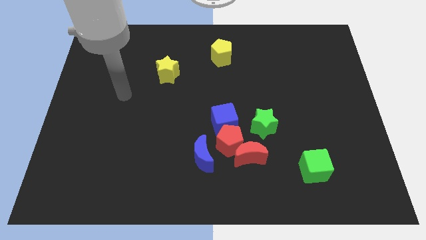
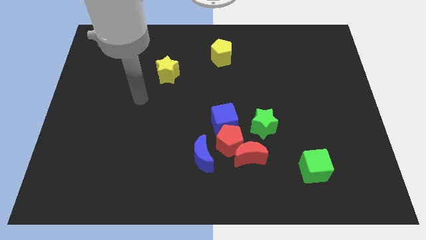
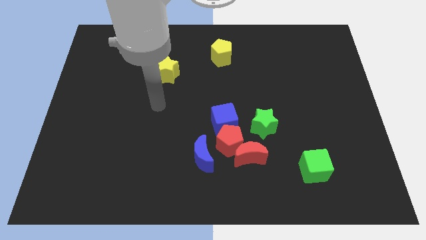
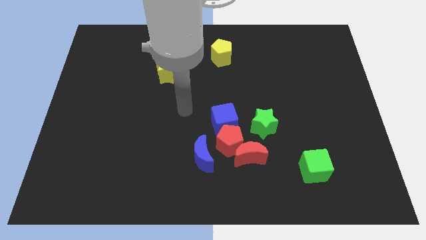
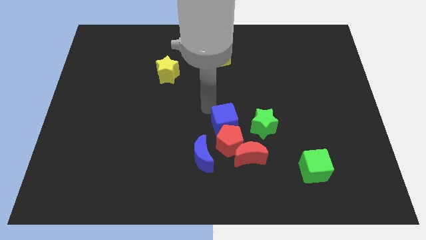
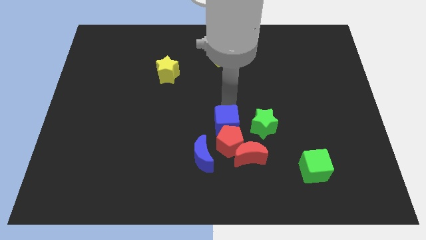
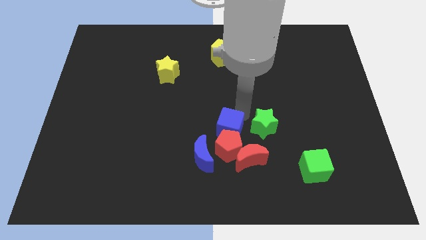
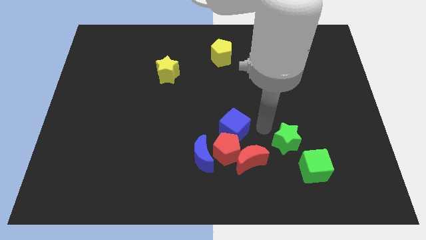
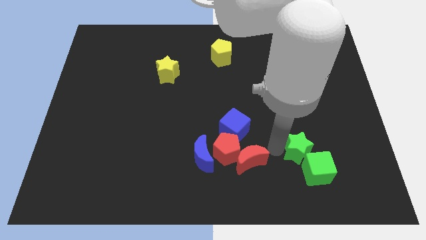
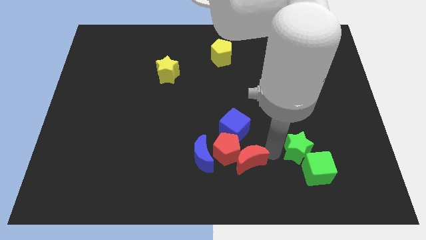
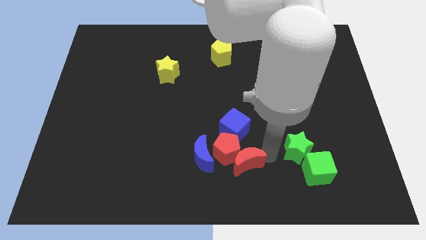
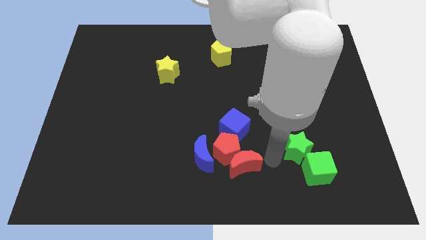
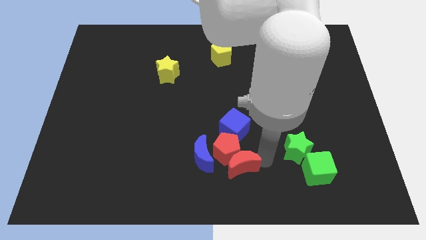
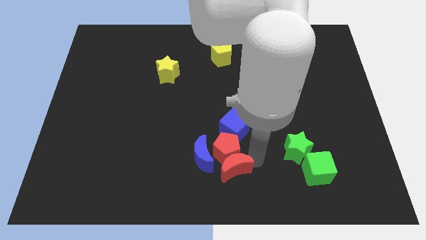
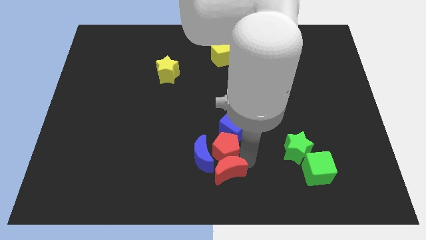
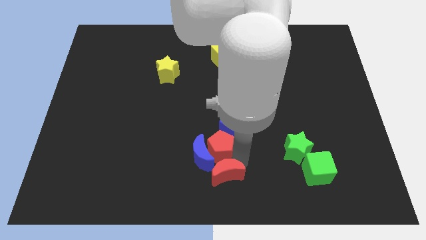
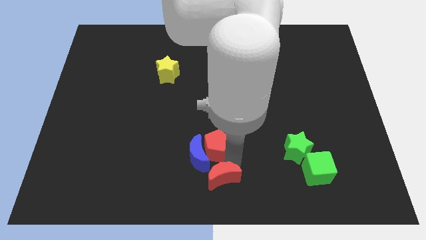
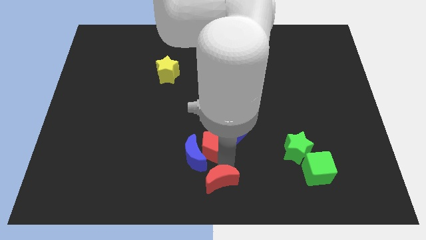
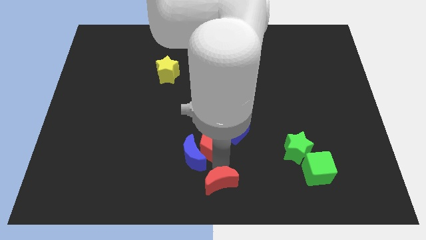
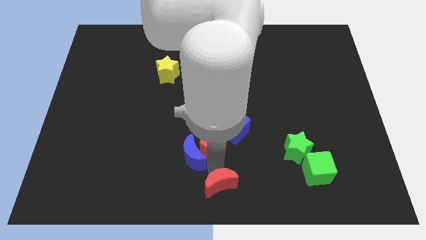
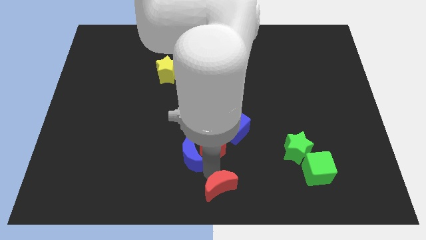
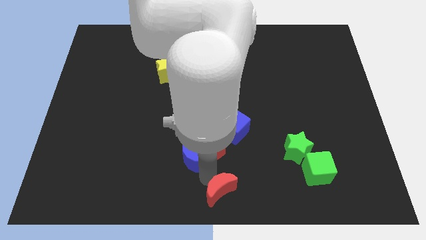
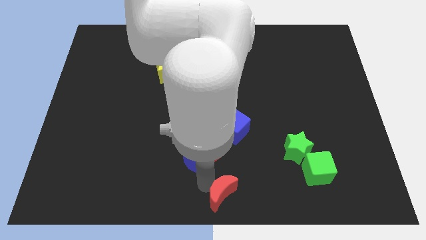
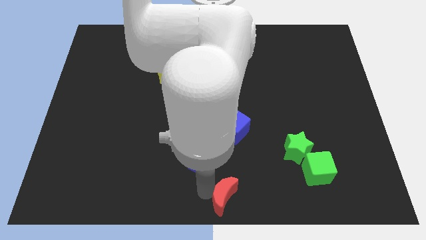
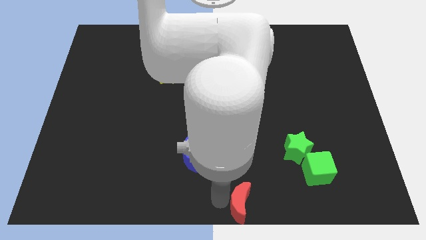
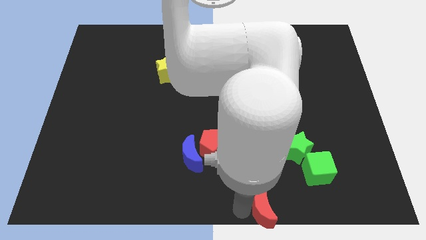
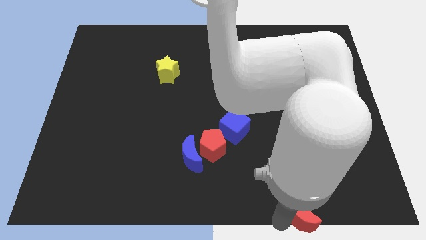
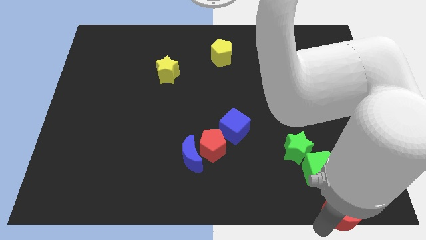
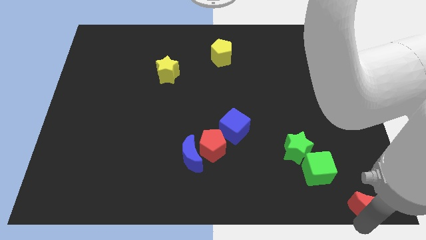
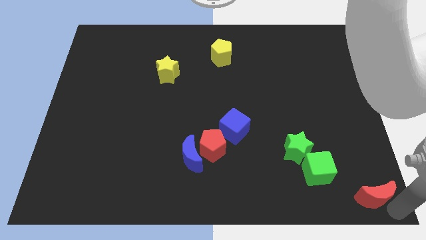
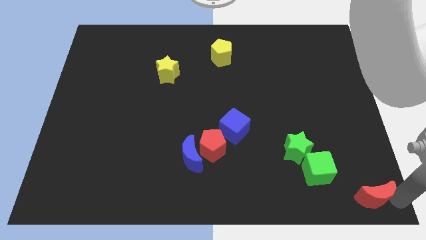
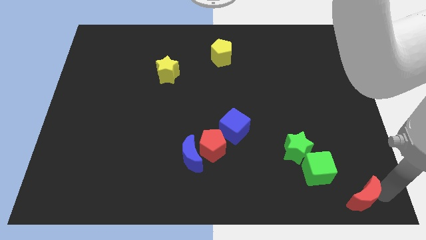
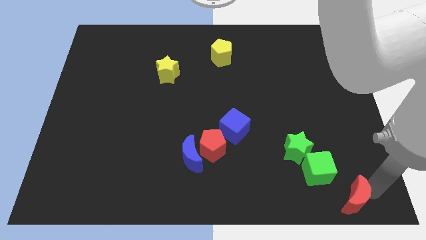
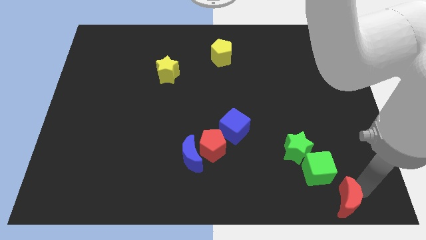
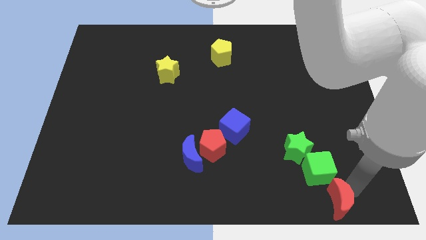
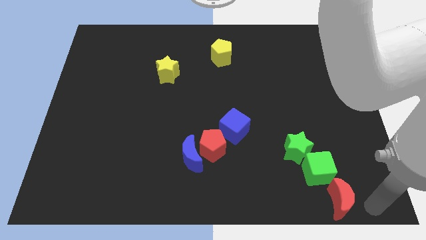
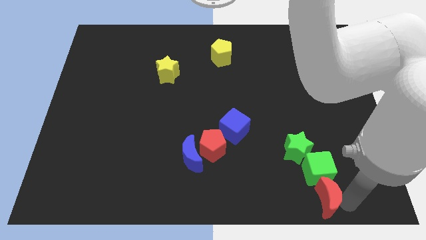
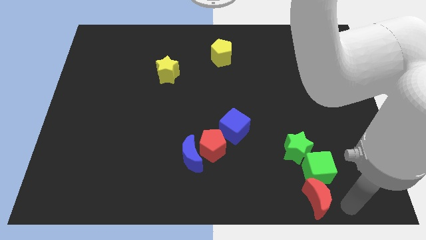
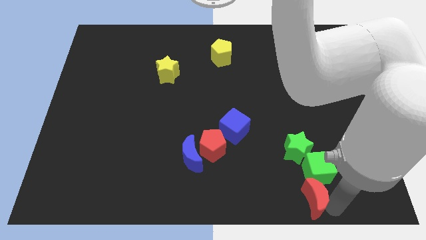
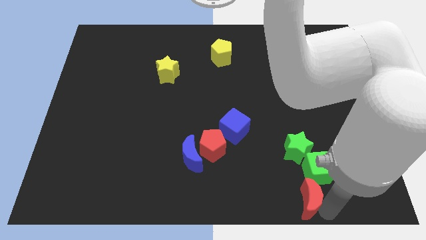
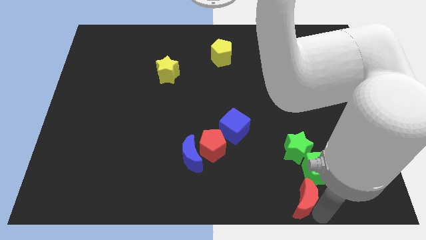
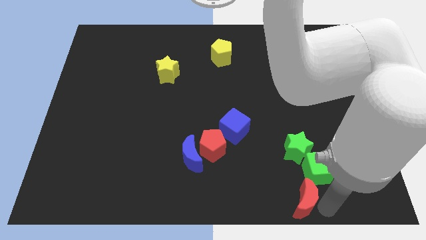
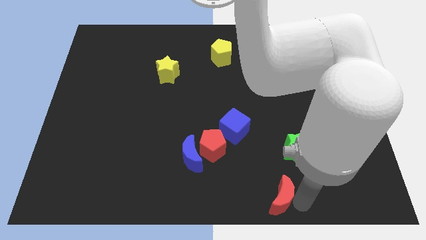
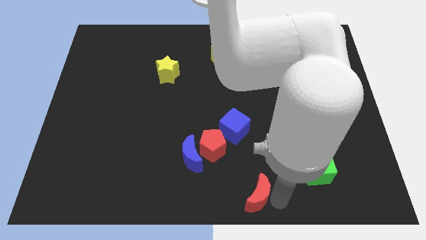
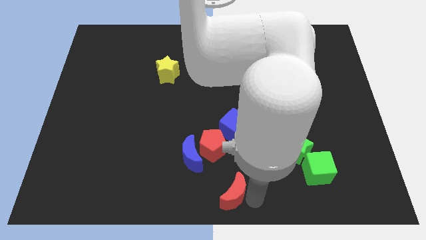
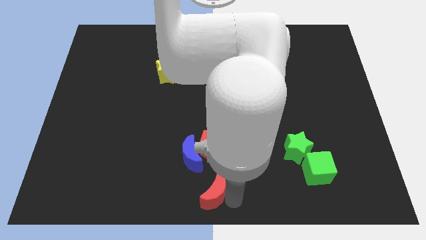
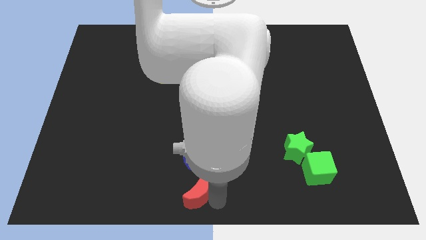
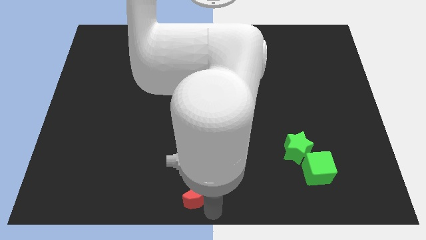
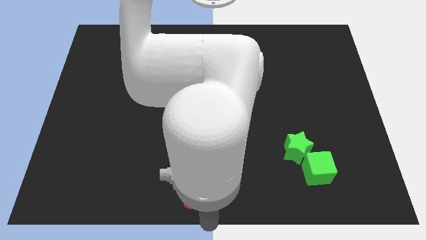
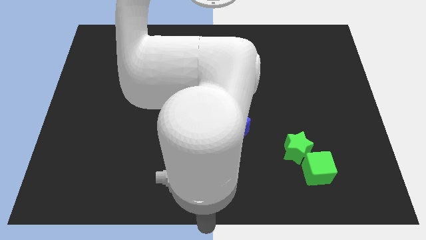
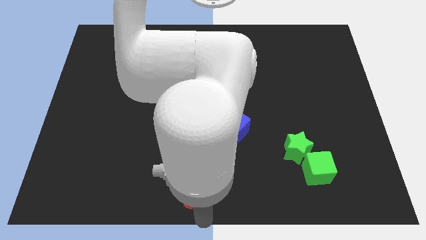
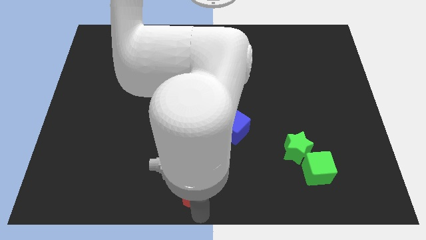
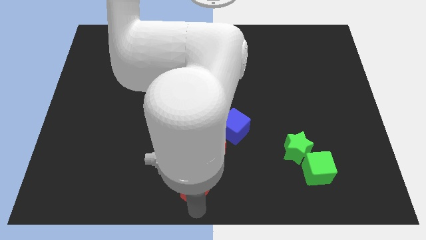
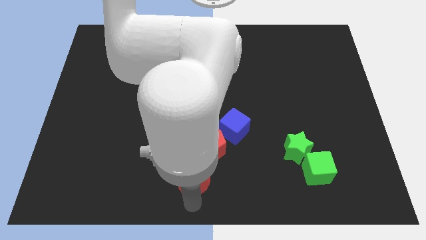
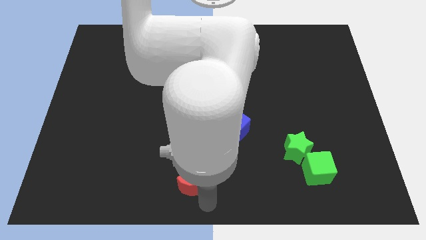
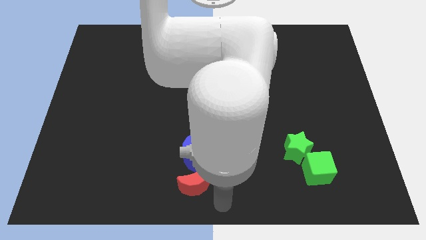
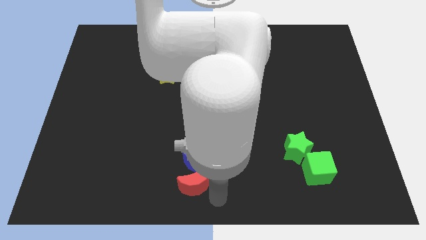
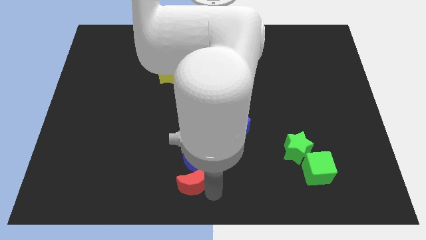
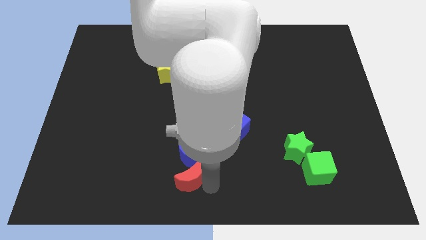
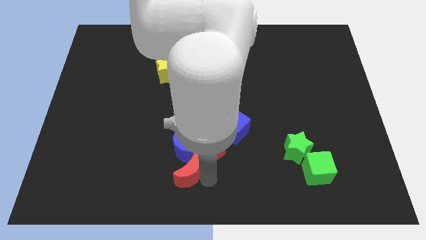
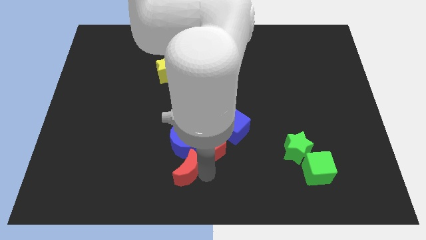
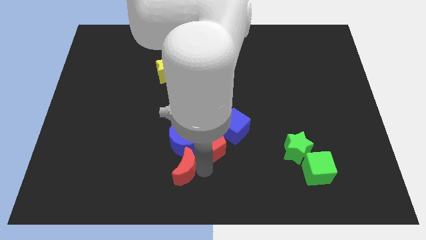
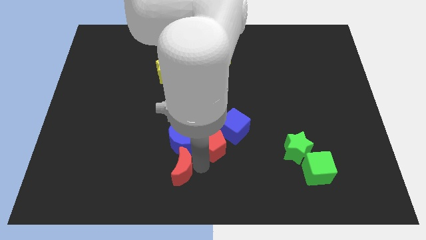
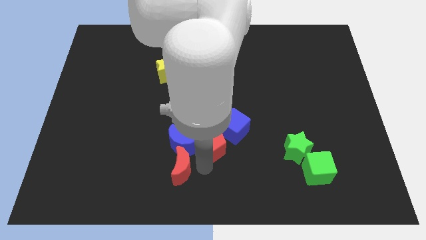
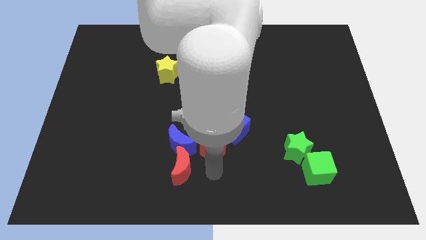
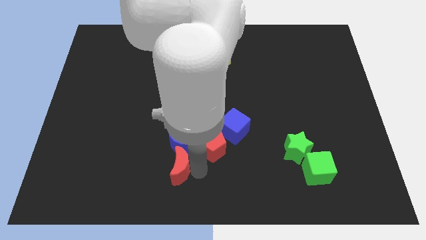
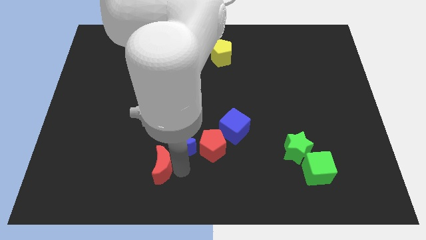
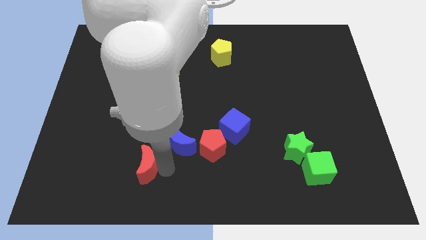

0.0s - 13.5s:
push the red moon left

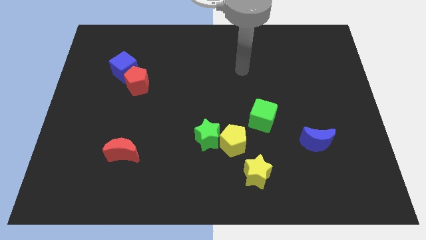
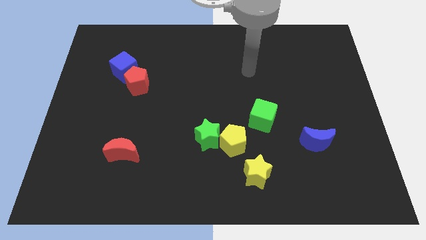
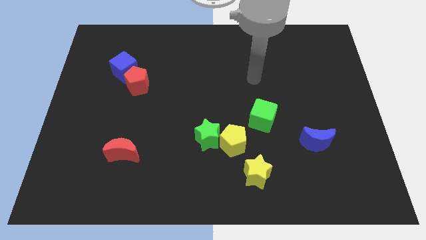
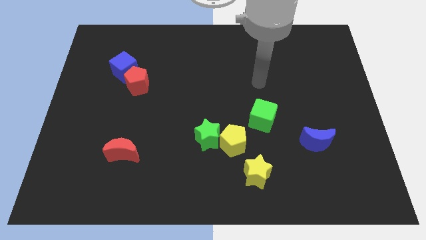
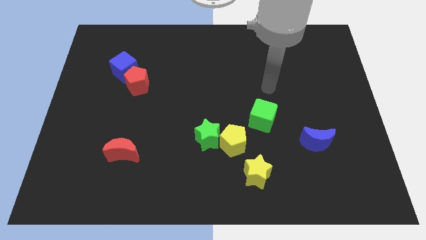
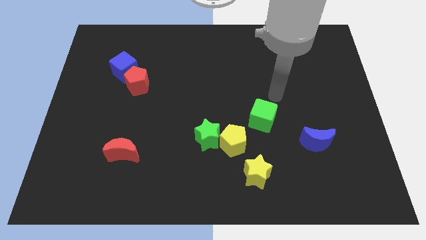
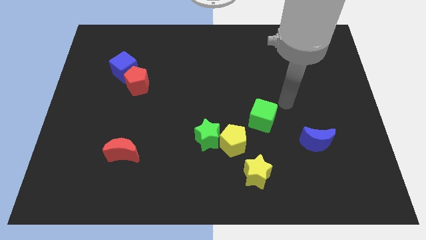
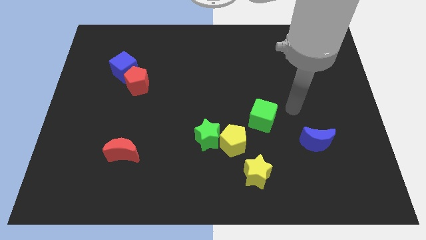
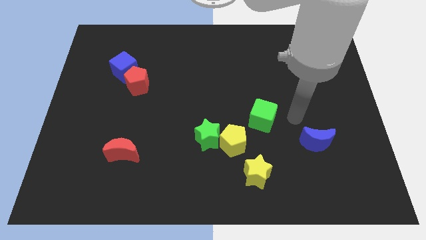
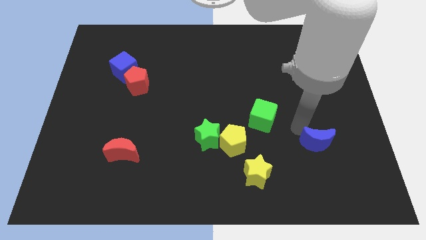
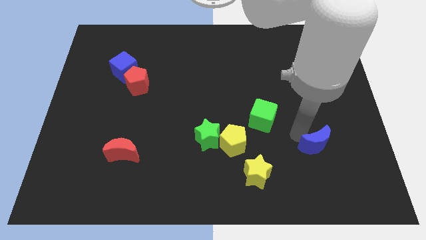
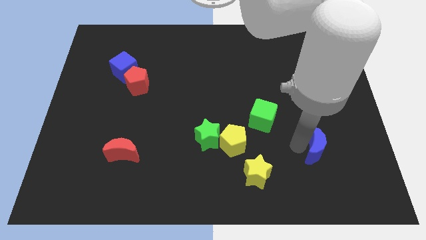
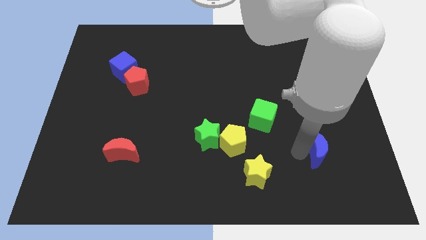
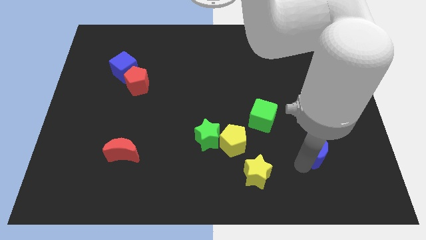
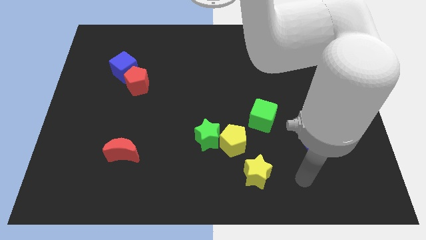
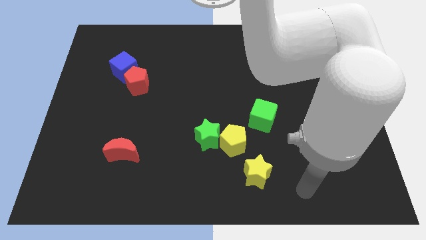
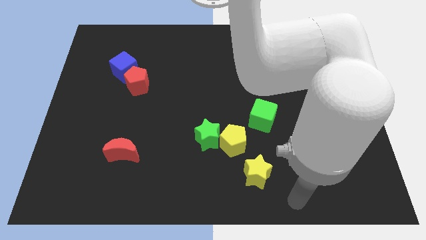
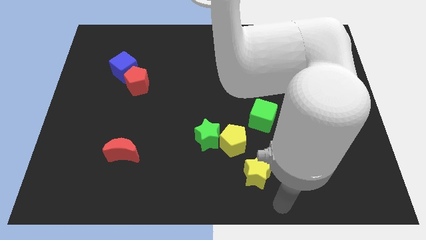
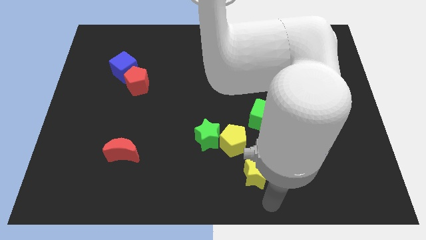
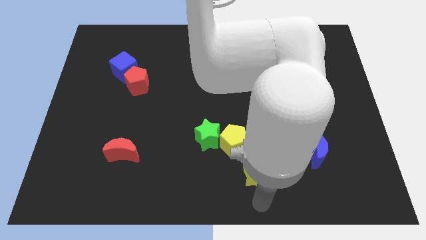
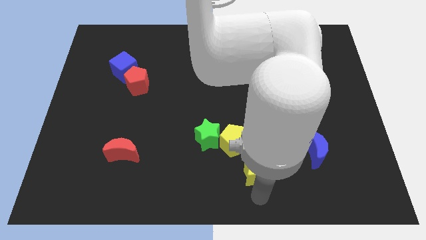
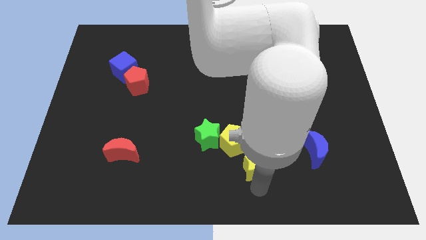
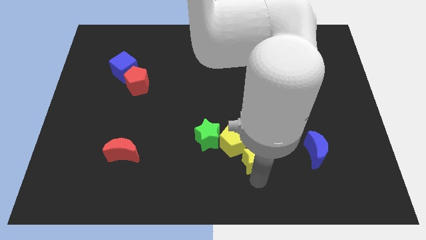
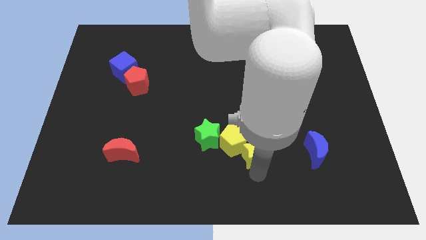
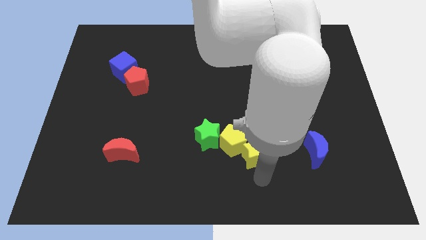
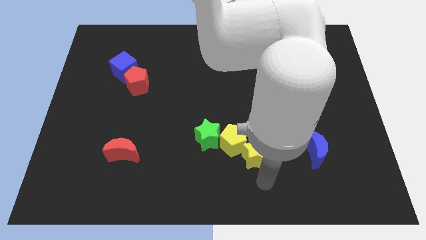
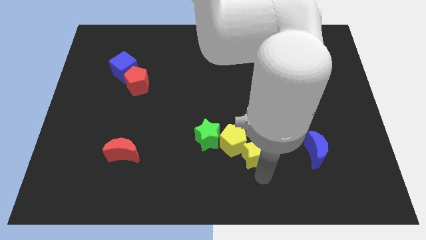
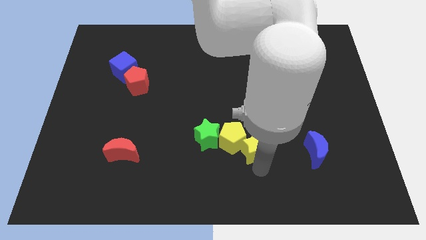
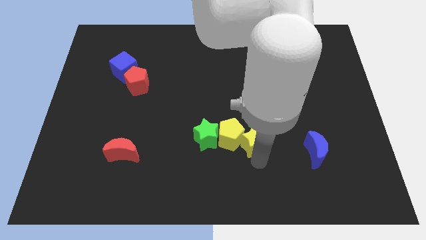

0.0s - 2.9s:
push the yellow star up a little
